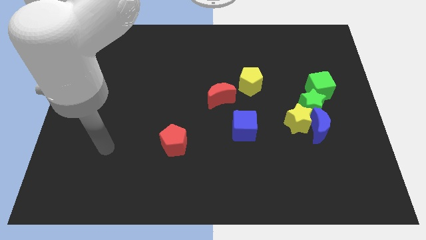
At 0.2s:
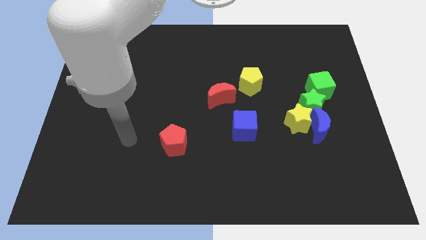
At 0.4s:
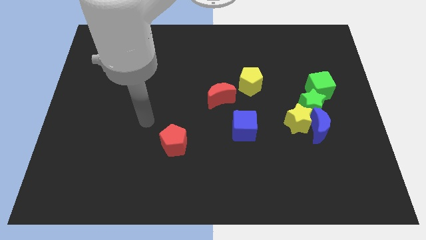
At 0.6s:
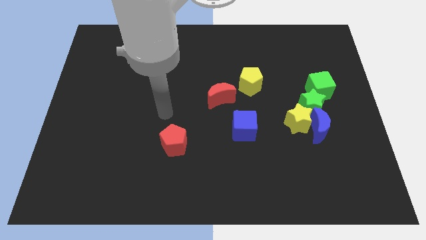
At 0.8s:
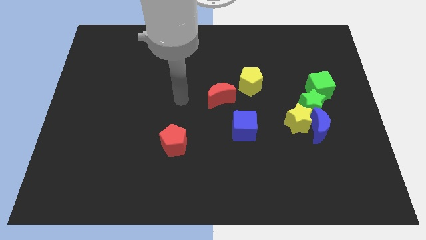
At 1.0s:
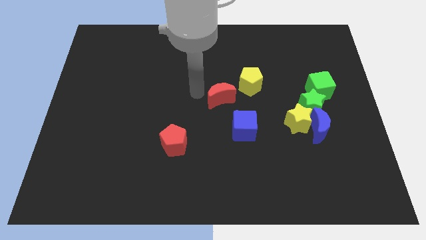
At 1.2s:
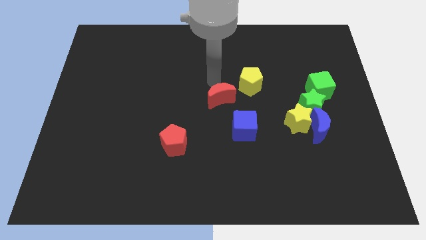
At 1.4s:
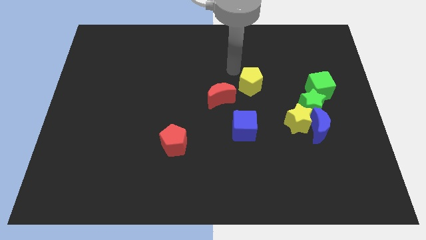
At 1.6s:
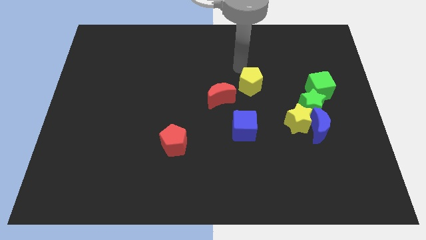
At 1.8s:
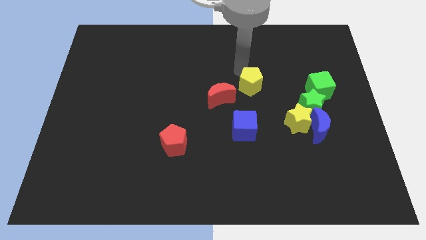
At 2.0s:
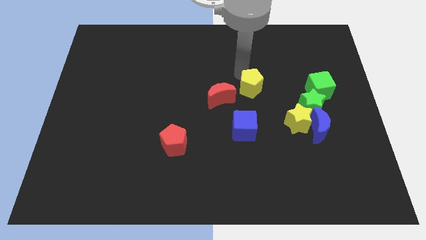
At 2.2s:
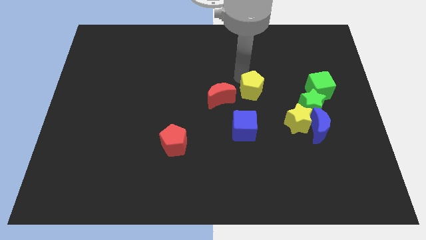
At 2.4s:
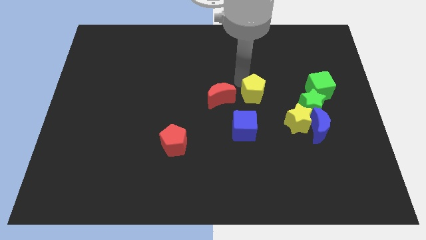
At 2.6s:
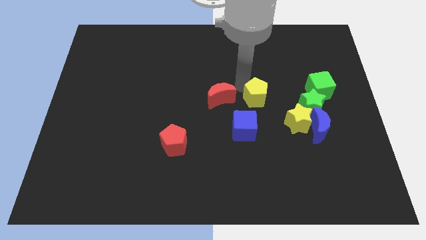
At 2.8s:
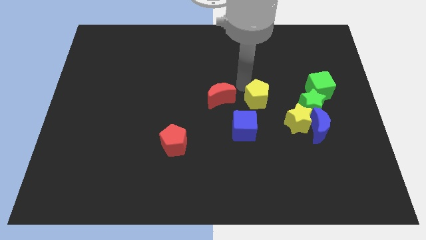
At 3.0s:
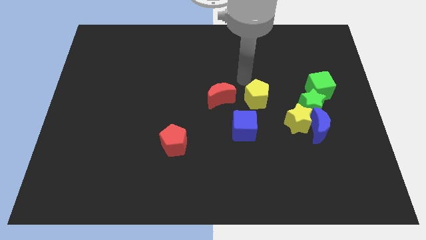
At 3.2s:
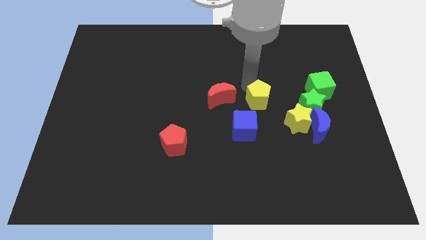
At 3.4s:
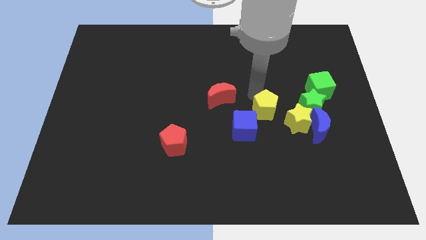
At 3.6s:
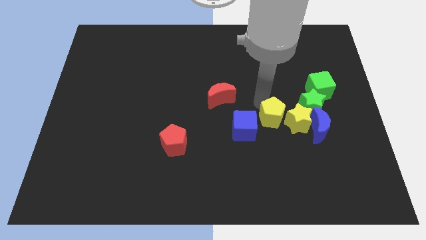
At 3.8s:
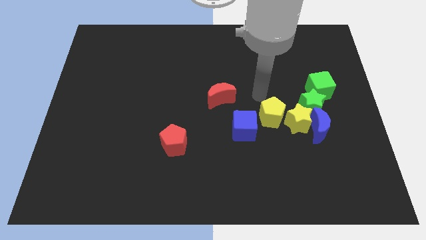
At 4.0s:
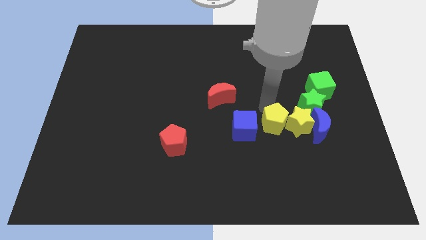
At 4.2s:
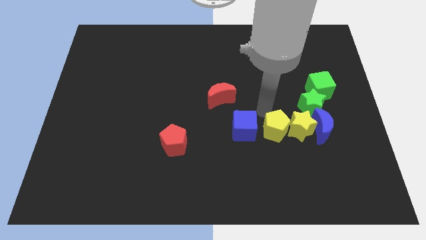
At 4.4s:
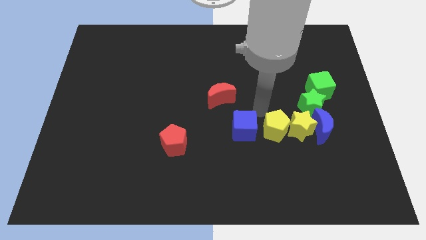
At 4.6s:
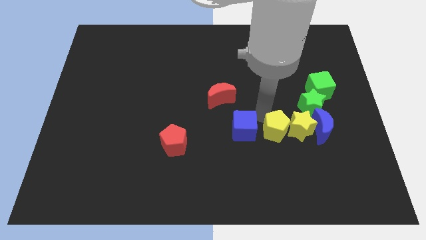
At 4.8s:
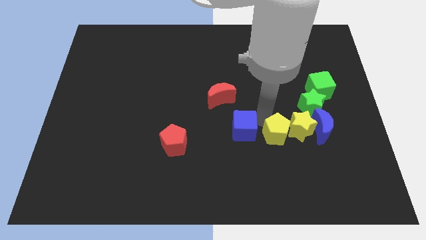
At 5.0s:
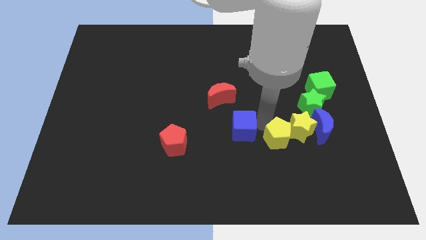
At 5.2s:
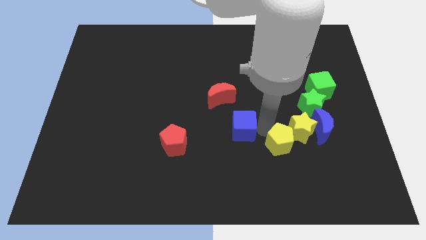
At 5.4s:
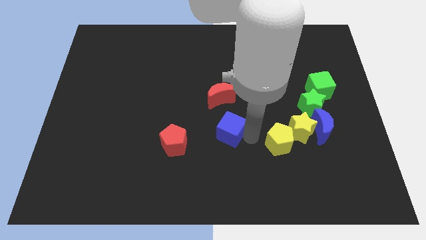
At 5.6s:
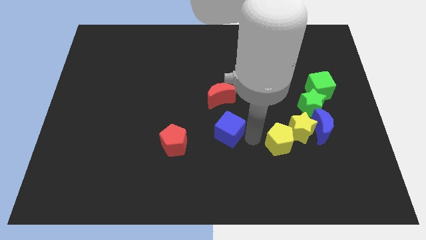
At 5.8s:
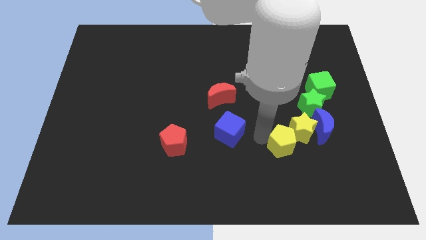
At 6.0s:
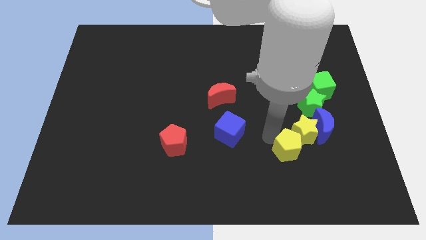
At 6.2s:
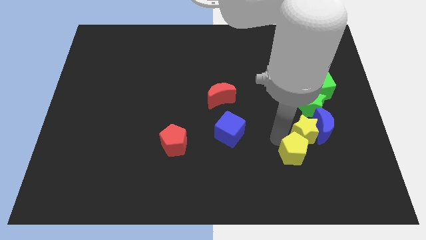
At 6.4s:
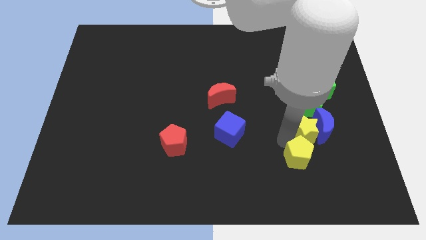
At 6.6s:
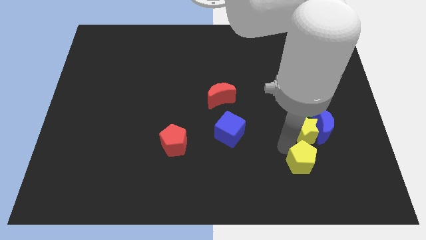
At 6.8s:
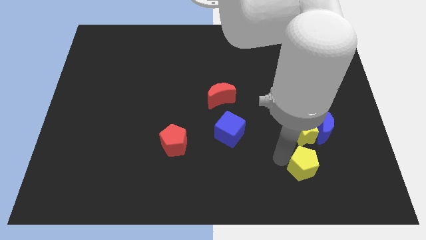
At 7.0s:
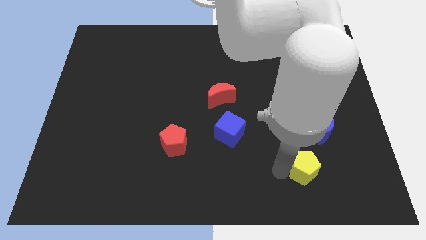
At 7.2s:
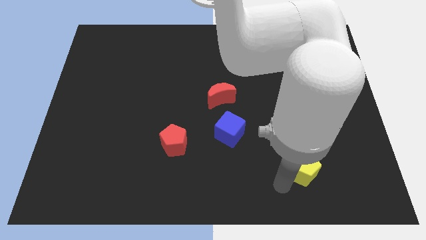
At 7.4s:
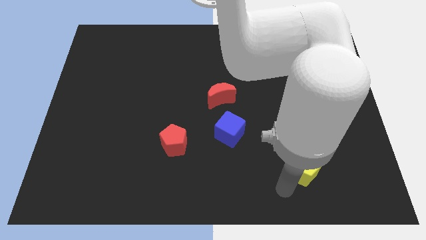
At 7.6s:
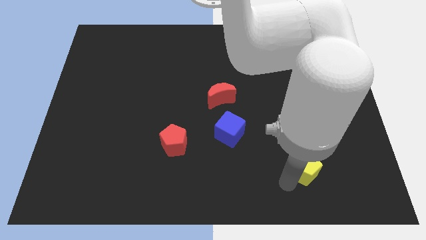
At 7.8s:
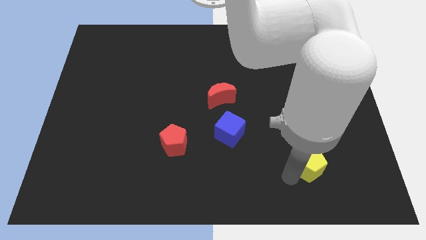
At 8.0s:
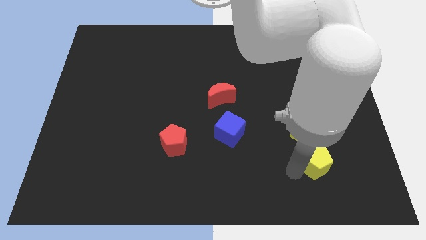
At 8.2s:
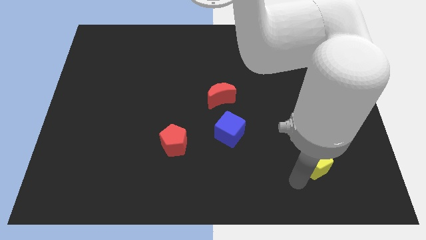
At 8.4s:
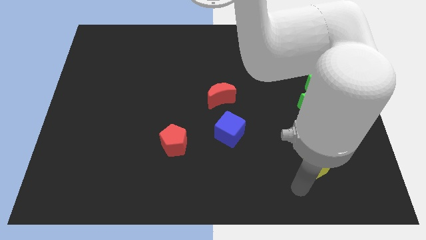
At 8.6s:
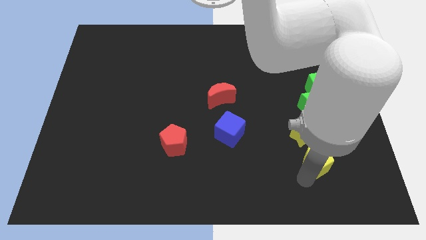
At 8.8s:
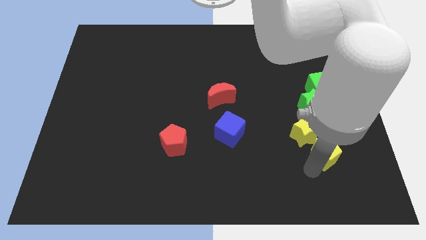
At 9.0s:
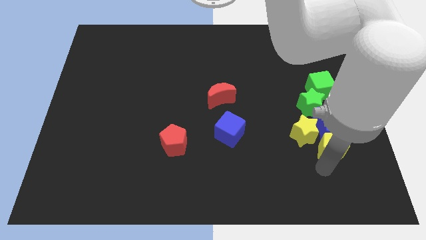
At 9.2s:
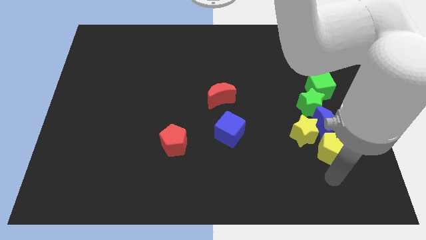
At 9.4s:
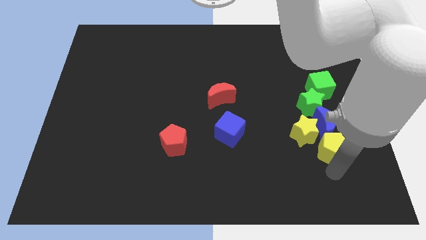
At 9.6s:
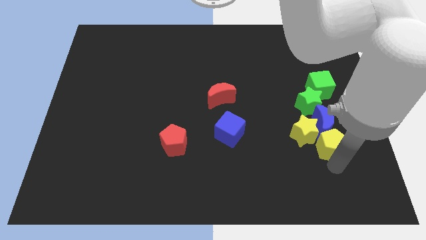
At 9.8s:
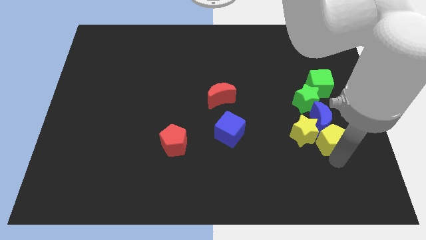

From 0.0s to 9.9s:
slide the yellow pentagon below the green cube

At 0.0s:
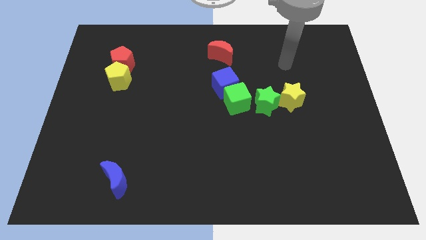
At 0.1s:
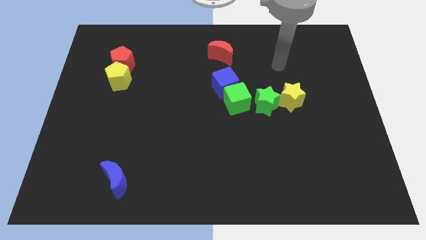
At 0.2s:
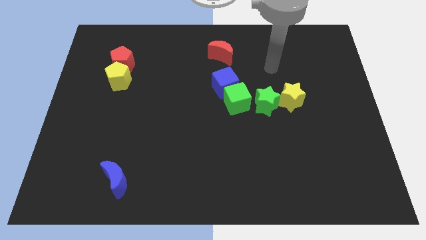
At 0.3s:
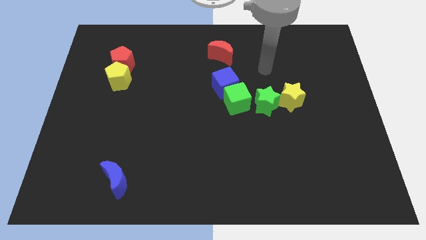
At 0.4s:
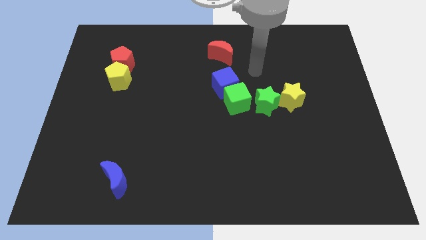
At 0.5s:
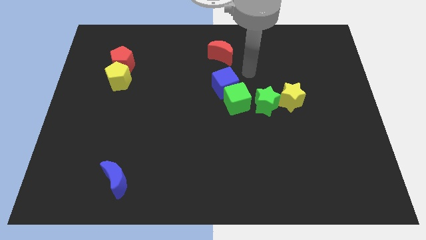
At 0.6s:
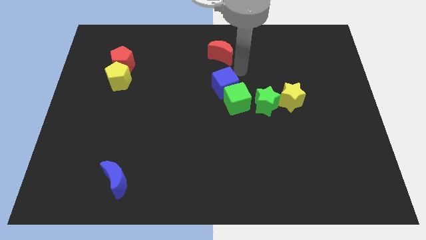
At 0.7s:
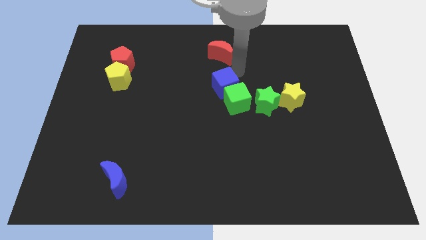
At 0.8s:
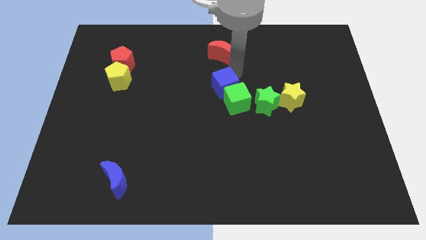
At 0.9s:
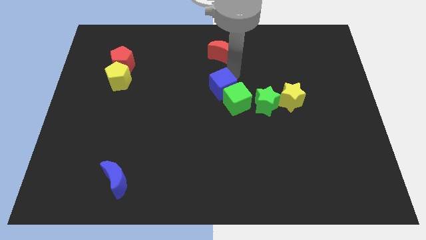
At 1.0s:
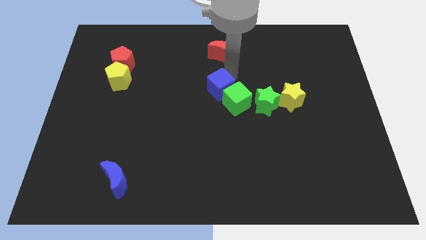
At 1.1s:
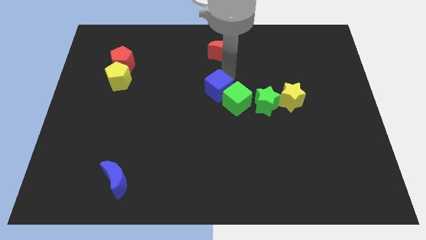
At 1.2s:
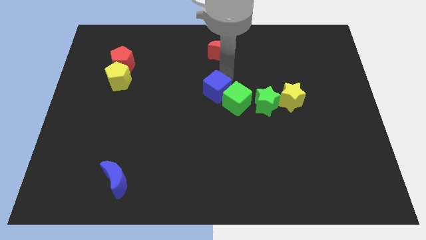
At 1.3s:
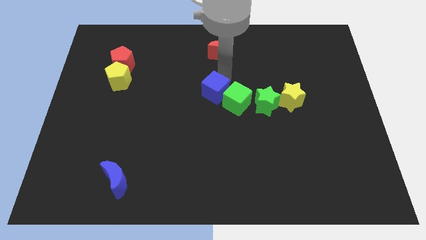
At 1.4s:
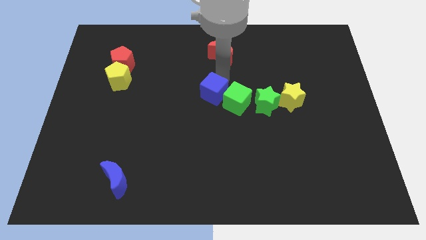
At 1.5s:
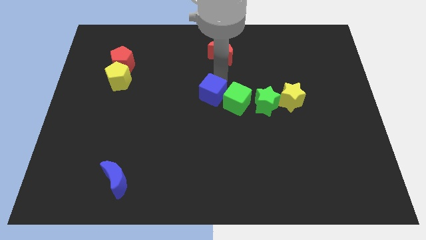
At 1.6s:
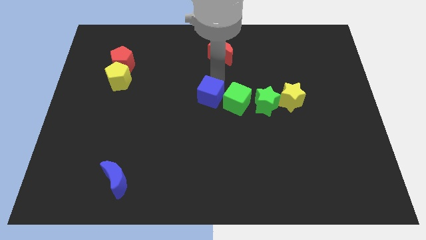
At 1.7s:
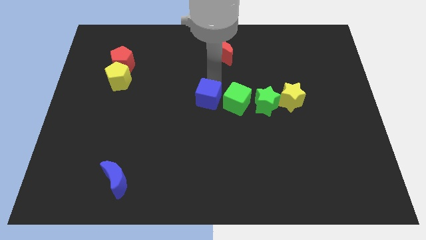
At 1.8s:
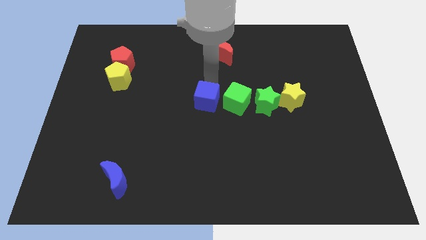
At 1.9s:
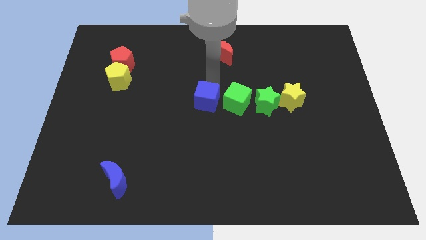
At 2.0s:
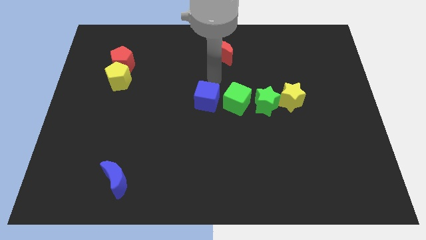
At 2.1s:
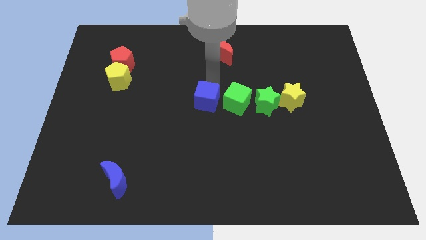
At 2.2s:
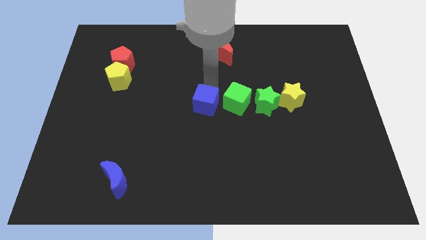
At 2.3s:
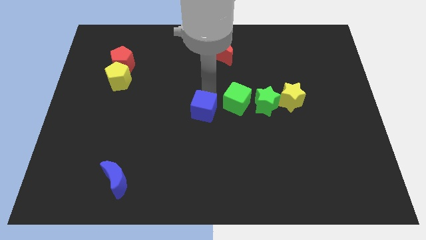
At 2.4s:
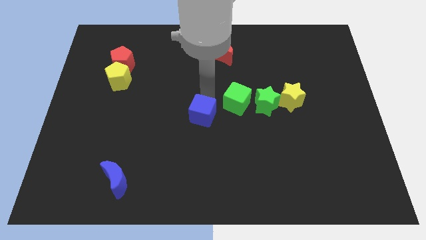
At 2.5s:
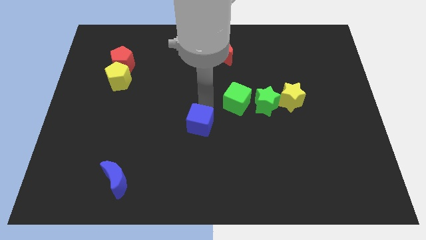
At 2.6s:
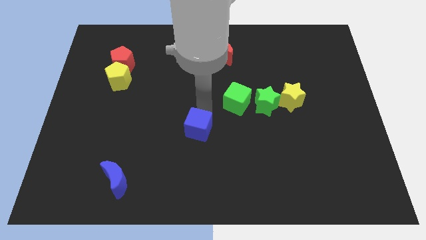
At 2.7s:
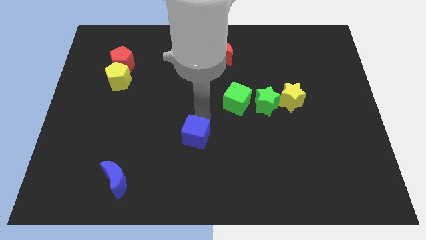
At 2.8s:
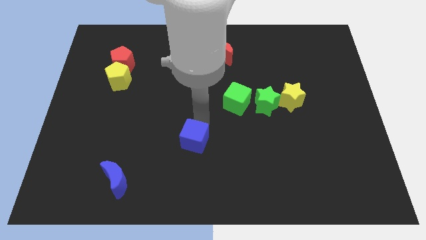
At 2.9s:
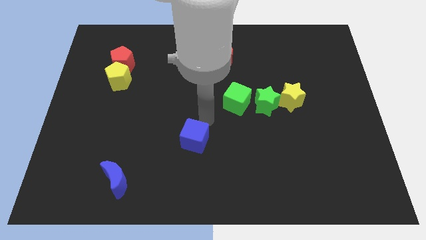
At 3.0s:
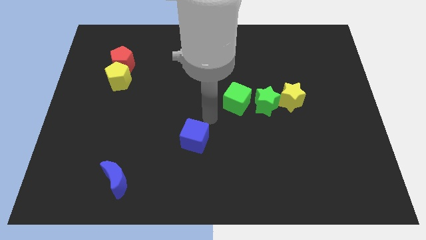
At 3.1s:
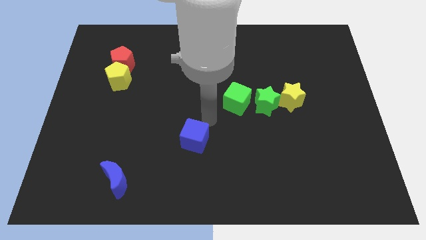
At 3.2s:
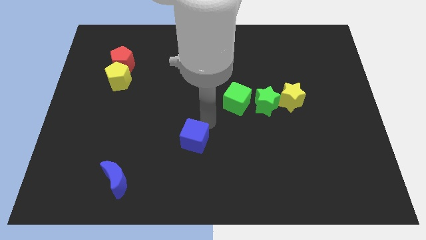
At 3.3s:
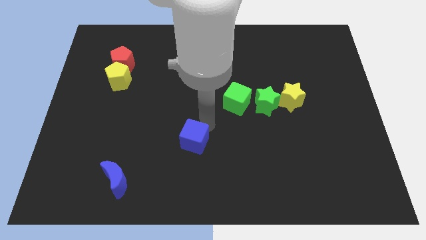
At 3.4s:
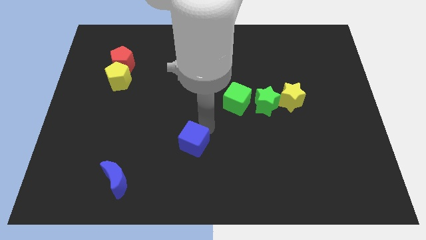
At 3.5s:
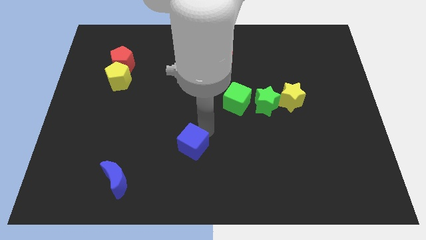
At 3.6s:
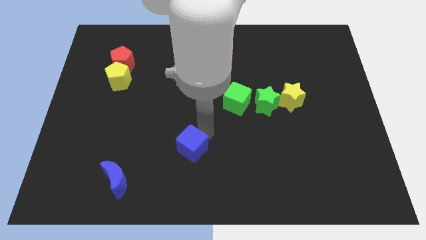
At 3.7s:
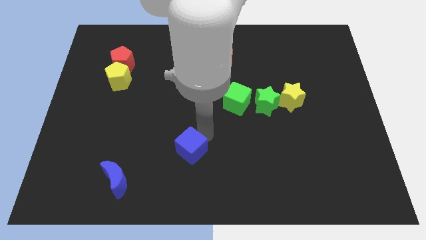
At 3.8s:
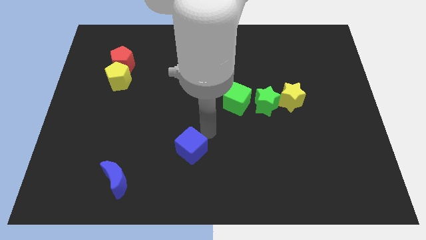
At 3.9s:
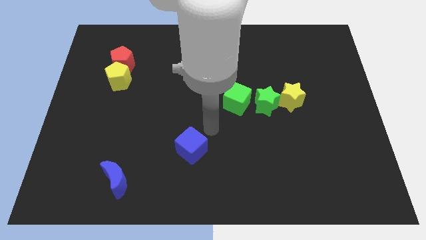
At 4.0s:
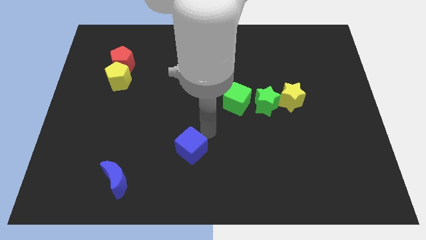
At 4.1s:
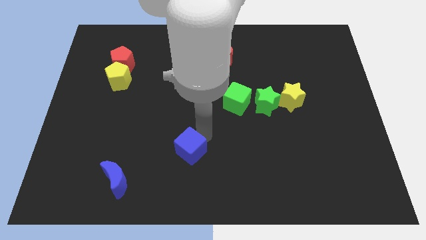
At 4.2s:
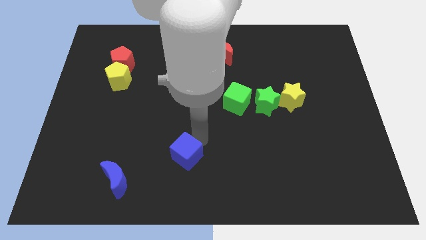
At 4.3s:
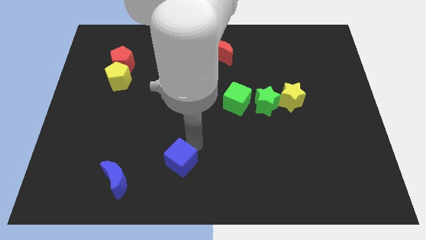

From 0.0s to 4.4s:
move the blue cube just right of the blue moon
